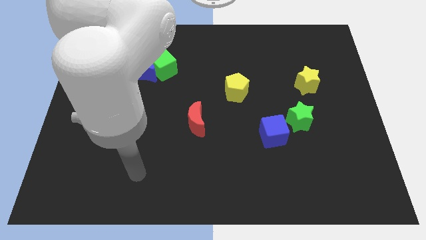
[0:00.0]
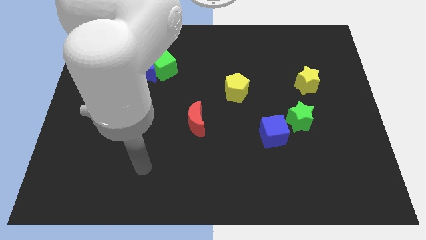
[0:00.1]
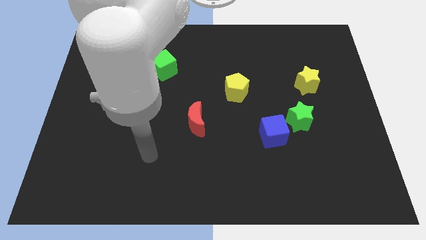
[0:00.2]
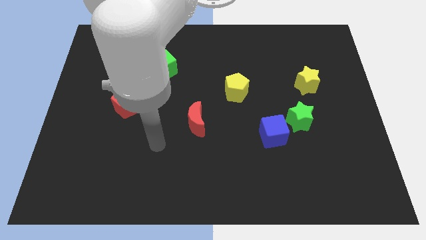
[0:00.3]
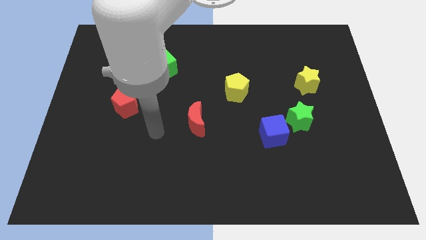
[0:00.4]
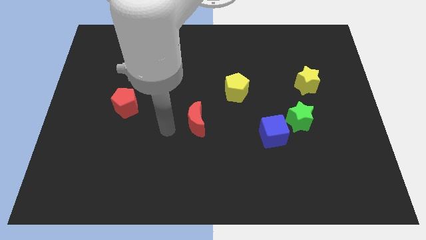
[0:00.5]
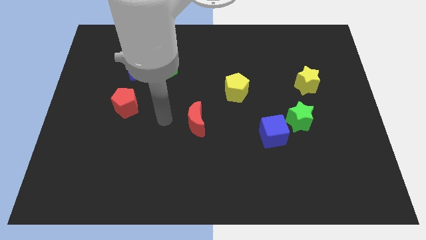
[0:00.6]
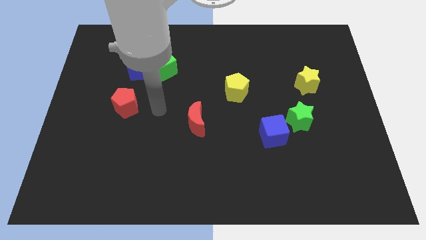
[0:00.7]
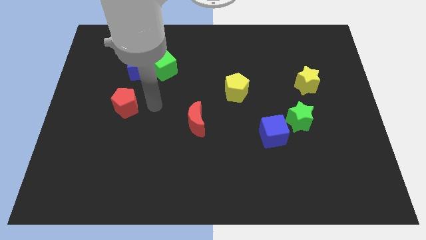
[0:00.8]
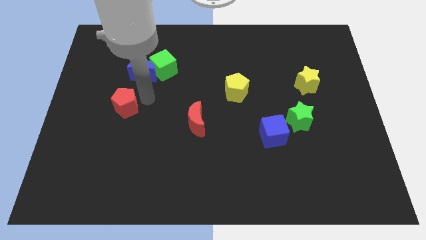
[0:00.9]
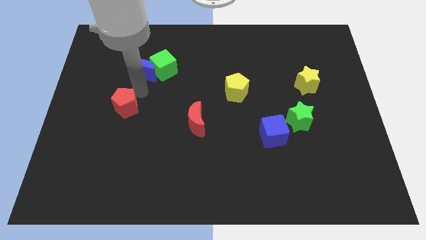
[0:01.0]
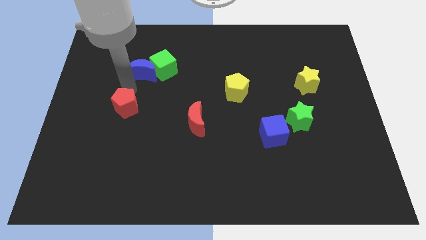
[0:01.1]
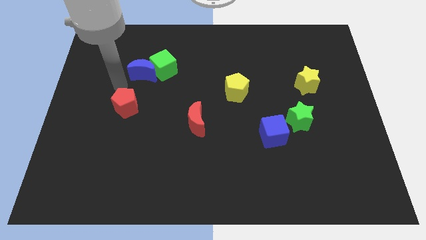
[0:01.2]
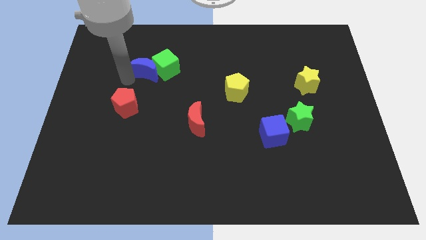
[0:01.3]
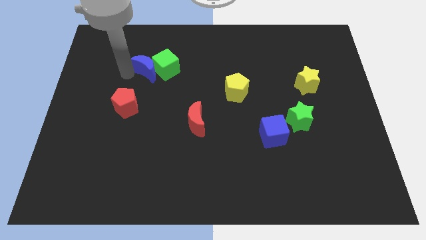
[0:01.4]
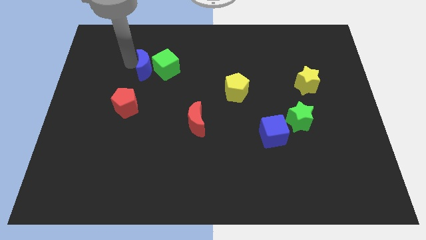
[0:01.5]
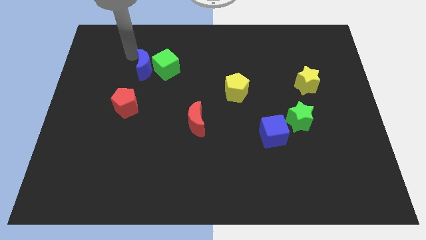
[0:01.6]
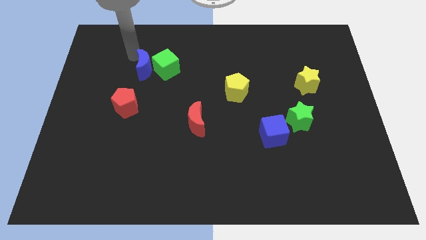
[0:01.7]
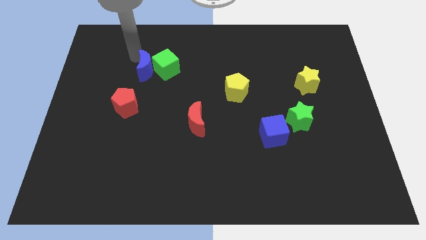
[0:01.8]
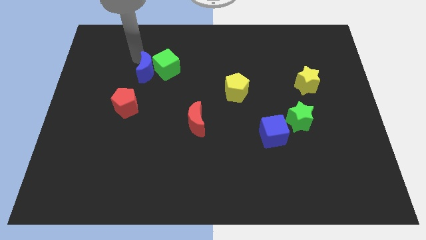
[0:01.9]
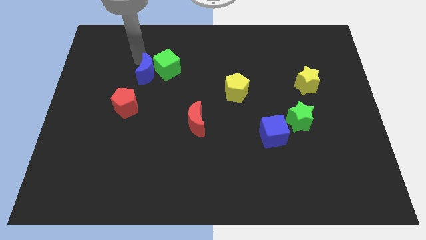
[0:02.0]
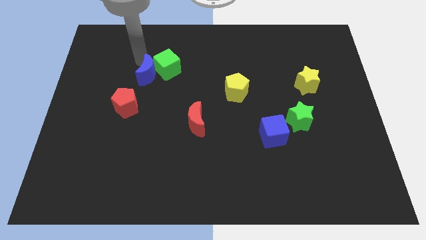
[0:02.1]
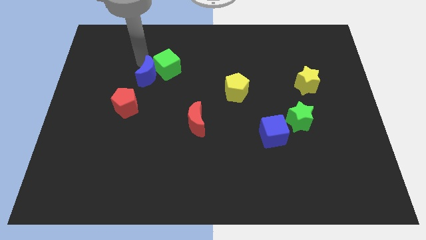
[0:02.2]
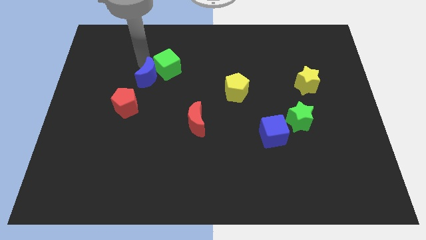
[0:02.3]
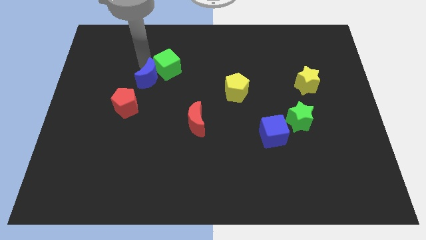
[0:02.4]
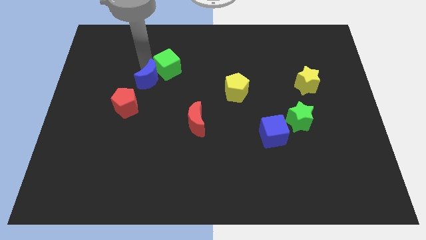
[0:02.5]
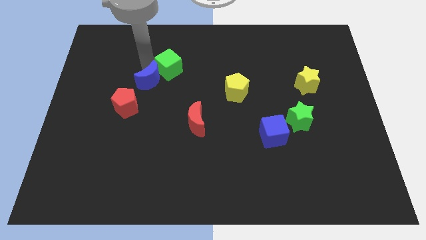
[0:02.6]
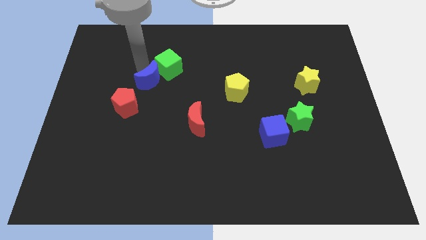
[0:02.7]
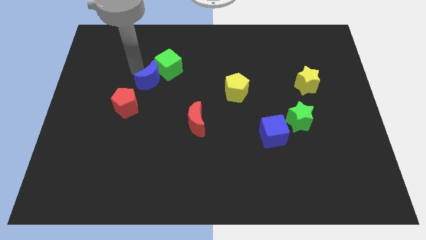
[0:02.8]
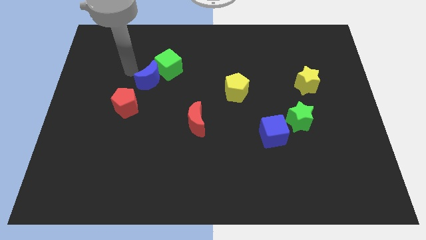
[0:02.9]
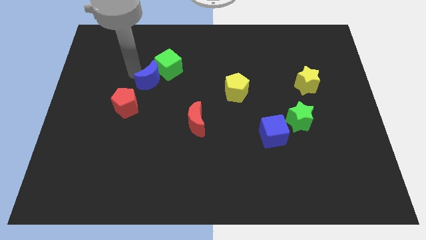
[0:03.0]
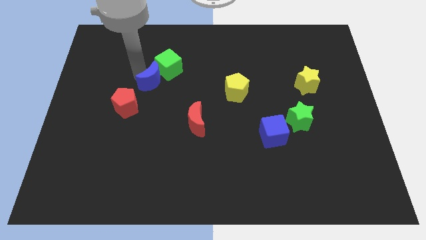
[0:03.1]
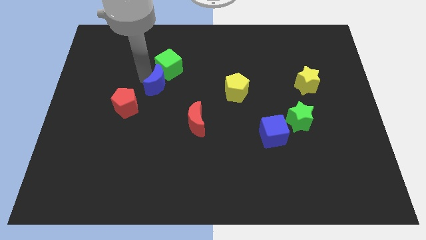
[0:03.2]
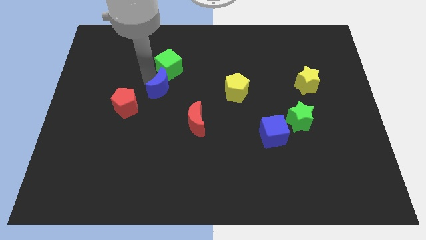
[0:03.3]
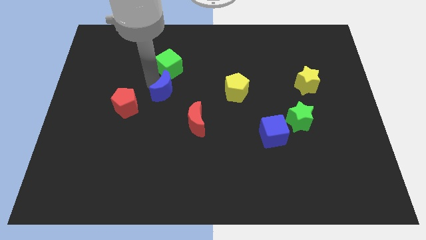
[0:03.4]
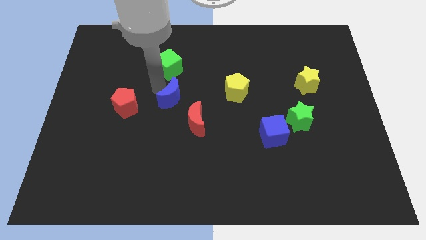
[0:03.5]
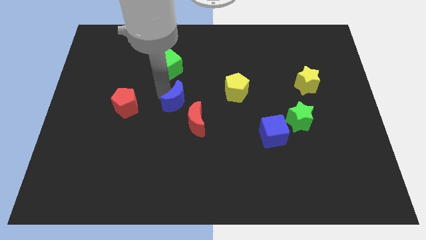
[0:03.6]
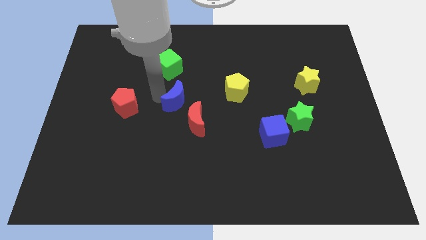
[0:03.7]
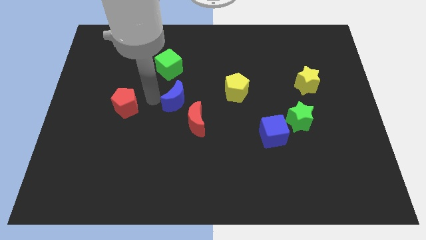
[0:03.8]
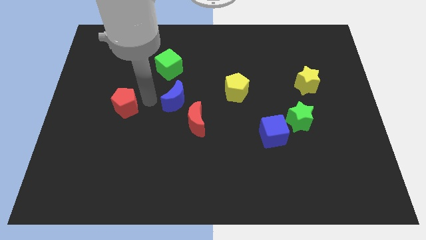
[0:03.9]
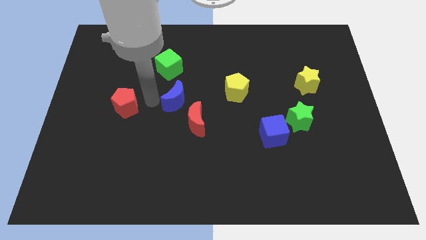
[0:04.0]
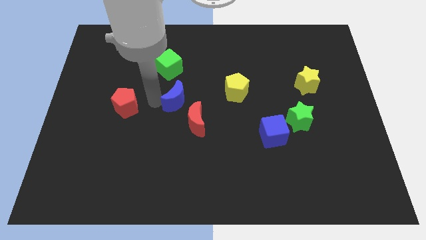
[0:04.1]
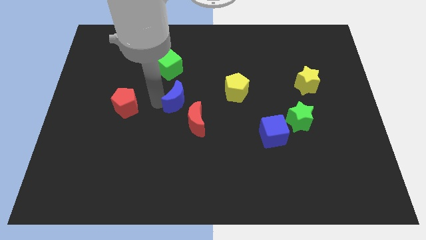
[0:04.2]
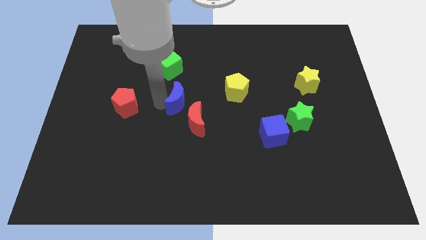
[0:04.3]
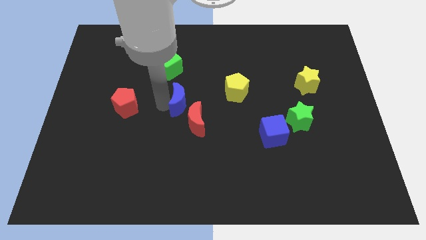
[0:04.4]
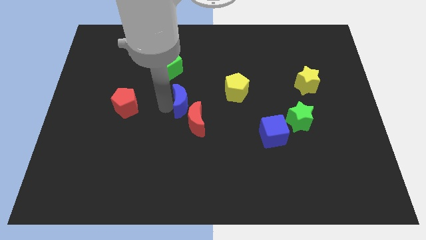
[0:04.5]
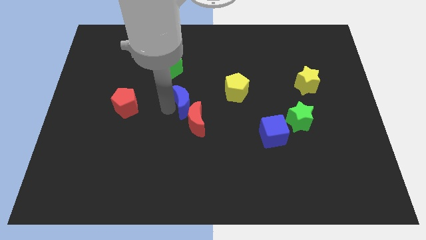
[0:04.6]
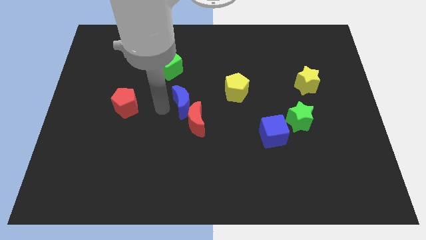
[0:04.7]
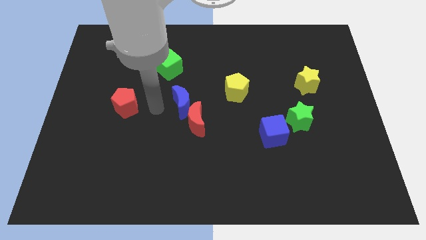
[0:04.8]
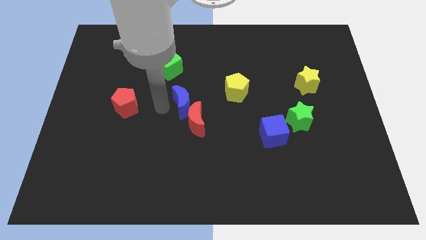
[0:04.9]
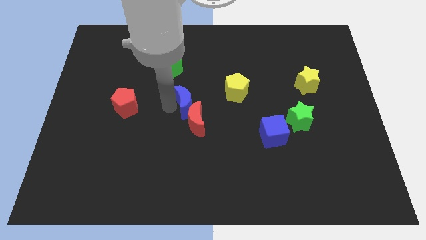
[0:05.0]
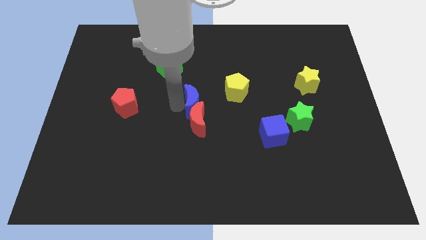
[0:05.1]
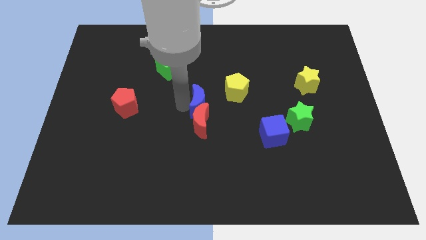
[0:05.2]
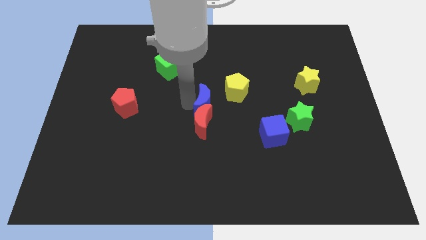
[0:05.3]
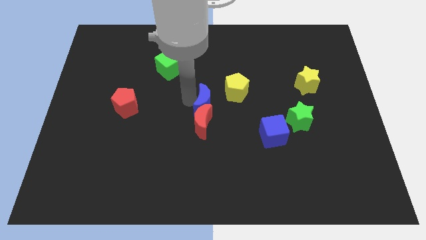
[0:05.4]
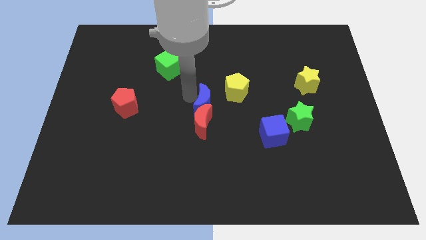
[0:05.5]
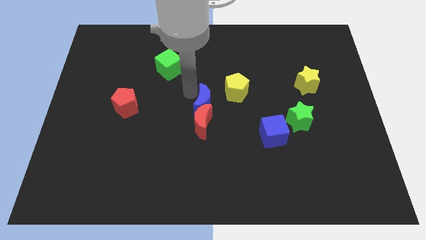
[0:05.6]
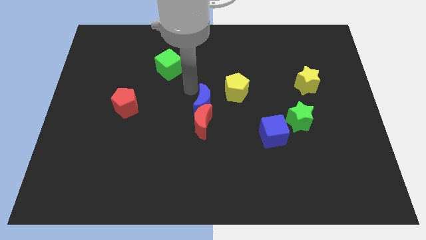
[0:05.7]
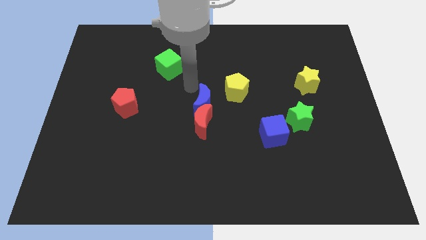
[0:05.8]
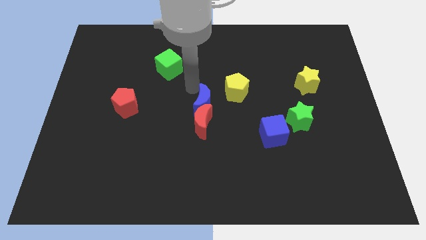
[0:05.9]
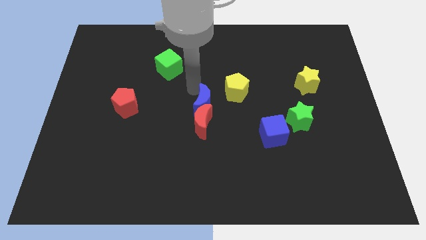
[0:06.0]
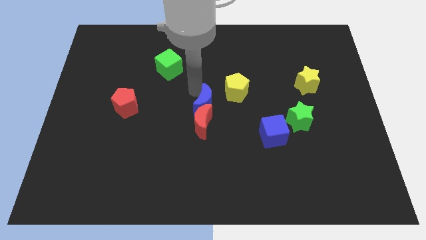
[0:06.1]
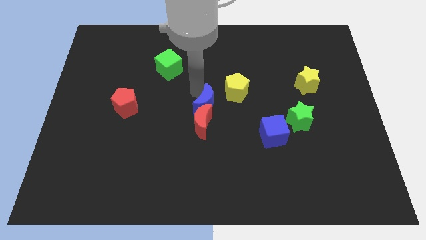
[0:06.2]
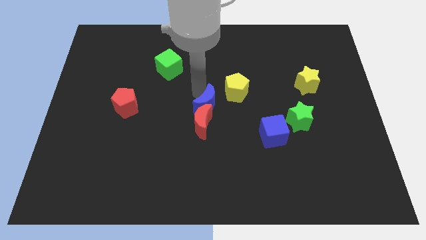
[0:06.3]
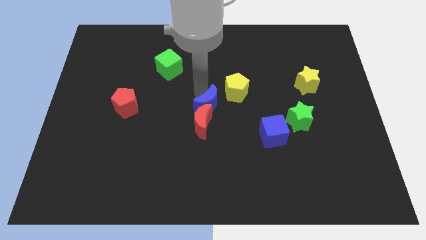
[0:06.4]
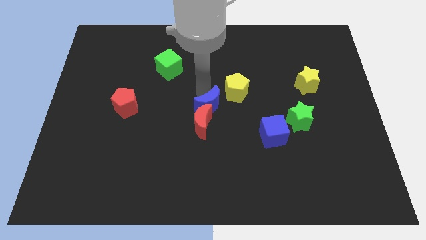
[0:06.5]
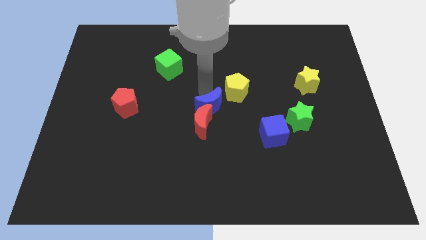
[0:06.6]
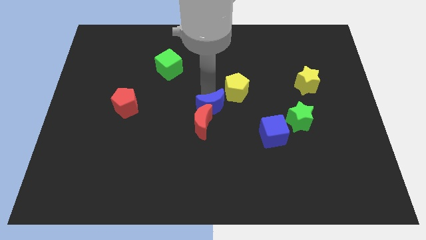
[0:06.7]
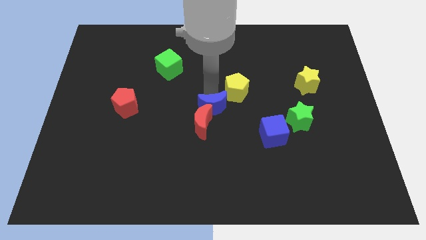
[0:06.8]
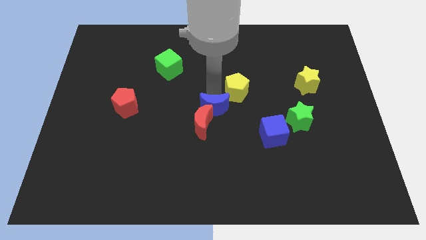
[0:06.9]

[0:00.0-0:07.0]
move the blue moon downwards and to the right diagonally

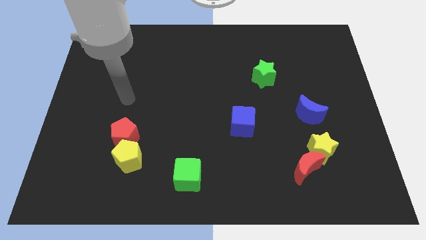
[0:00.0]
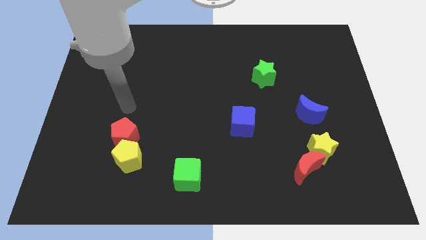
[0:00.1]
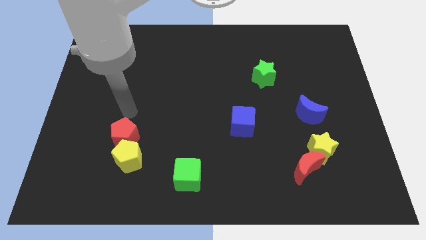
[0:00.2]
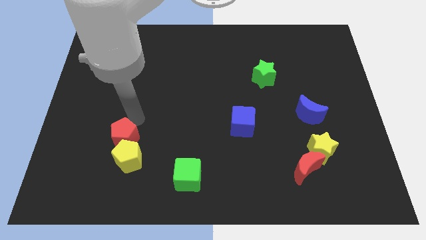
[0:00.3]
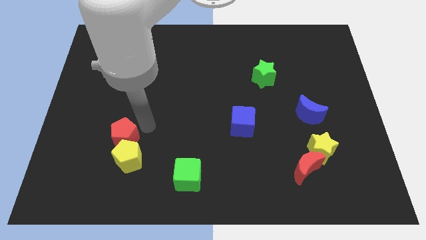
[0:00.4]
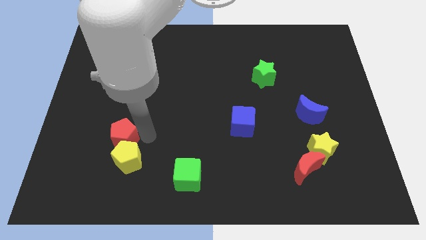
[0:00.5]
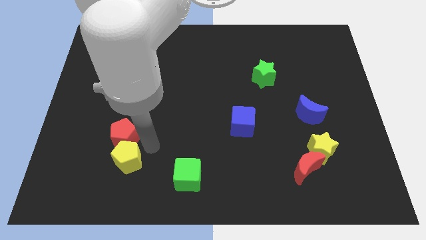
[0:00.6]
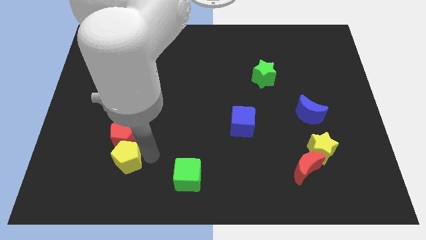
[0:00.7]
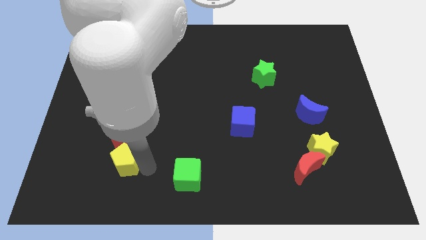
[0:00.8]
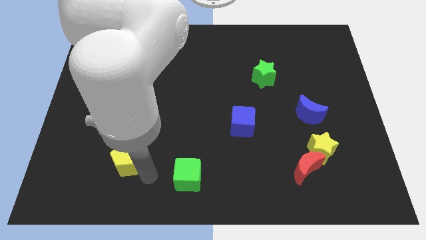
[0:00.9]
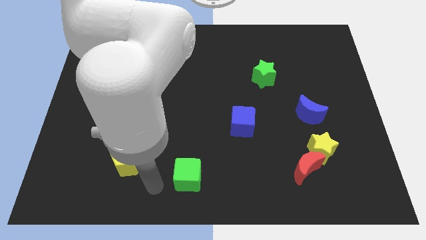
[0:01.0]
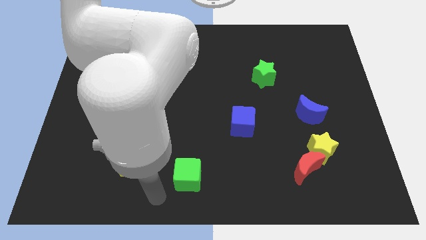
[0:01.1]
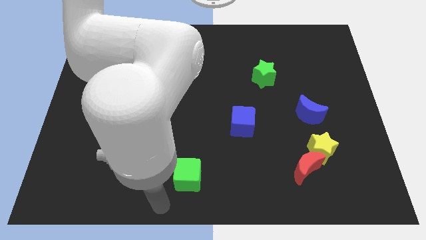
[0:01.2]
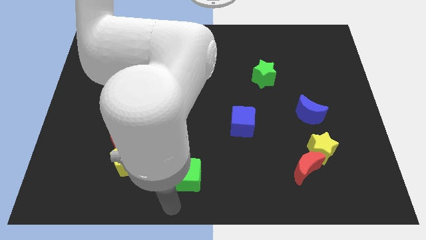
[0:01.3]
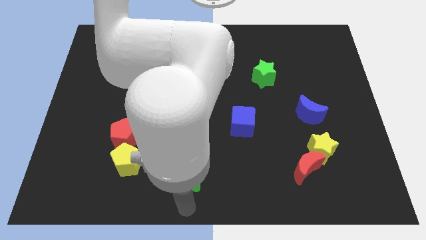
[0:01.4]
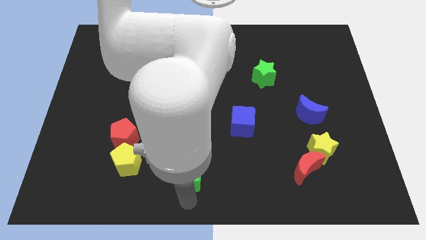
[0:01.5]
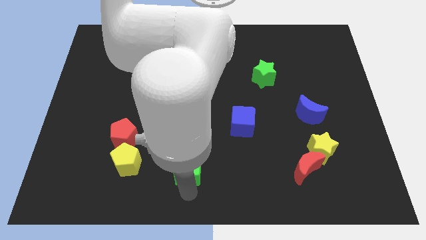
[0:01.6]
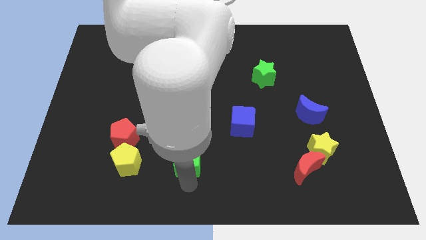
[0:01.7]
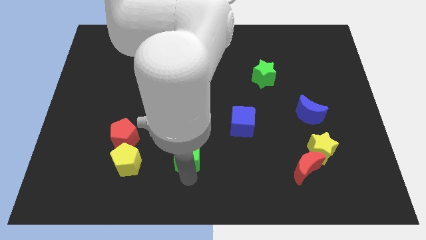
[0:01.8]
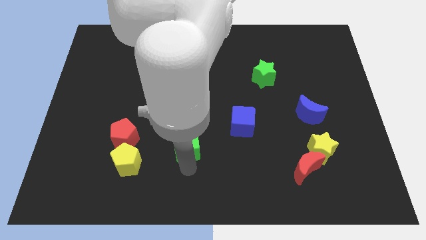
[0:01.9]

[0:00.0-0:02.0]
slightly slide the green cube up
